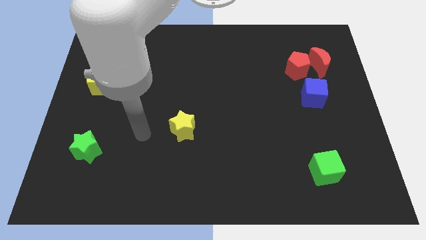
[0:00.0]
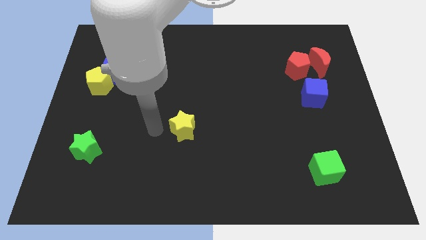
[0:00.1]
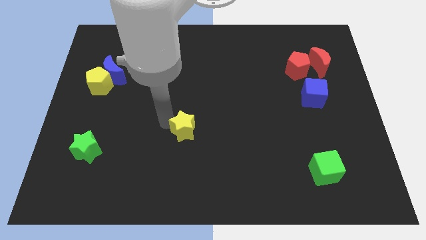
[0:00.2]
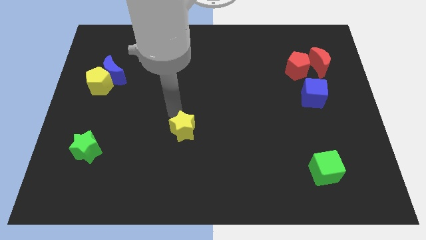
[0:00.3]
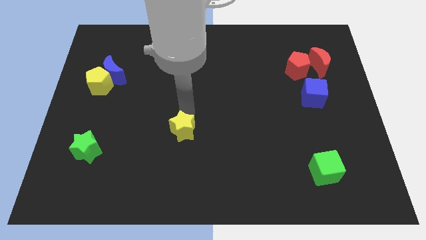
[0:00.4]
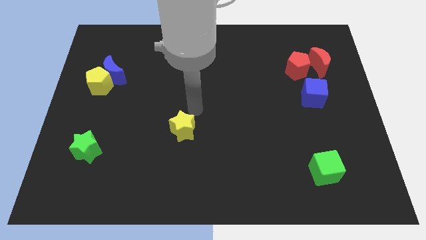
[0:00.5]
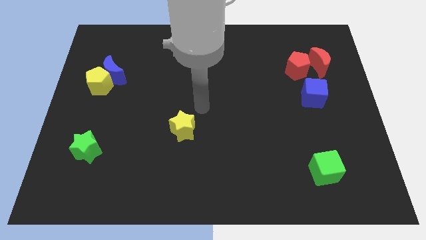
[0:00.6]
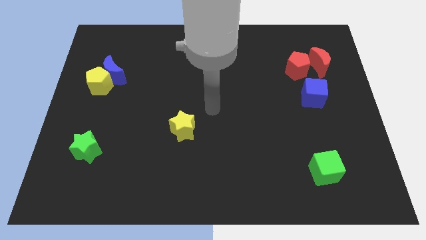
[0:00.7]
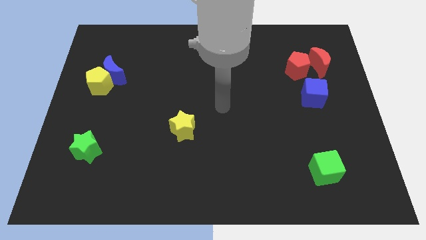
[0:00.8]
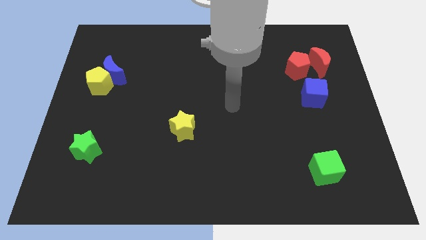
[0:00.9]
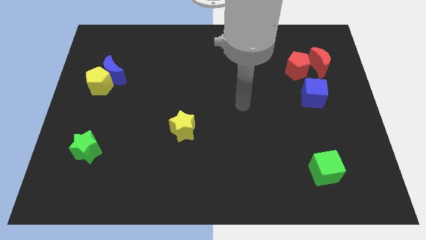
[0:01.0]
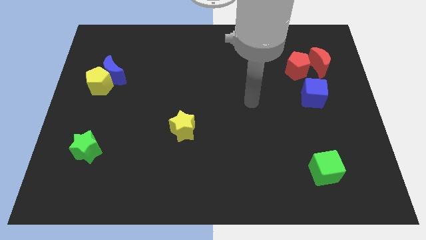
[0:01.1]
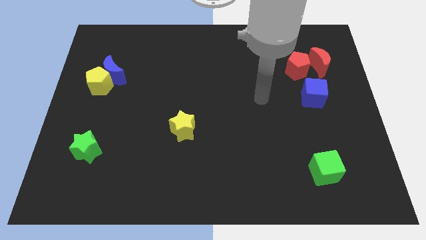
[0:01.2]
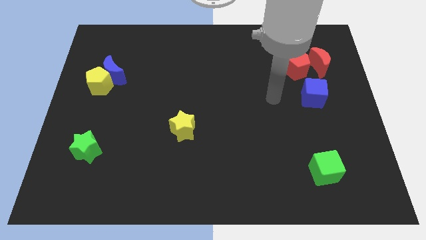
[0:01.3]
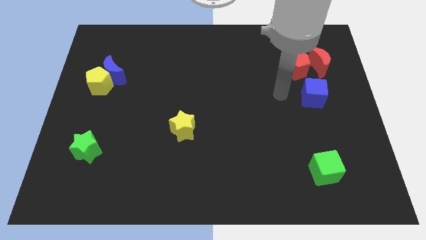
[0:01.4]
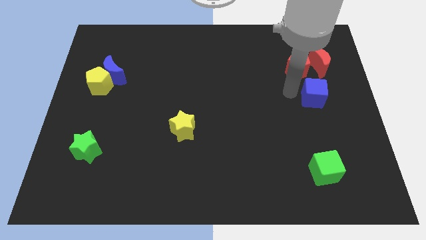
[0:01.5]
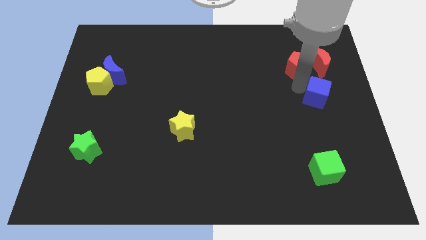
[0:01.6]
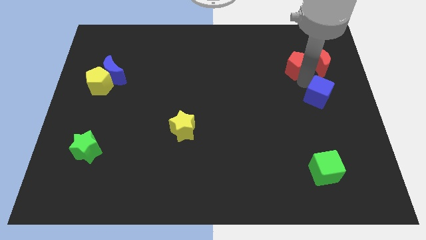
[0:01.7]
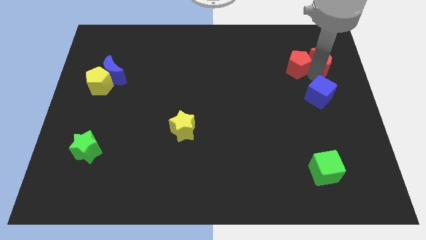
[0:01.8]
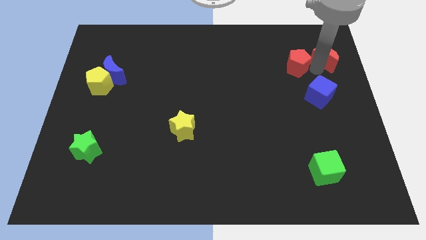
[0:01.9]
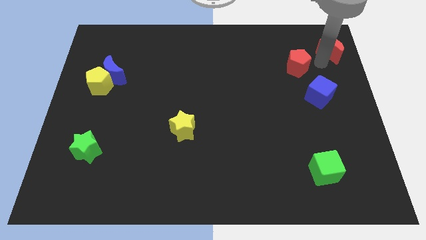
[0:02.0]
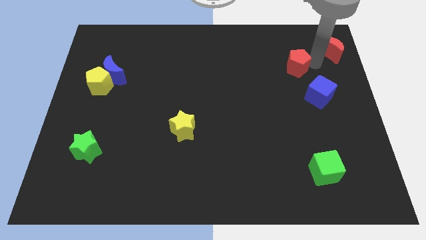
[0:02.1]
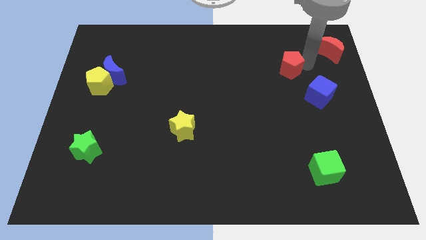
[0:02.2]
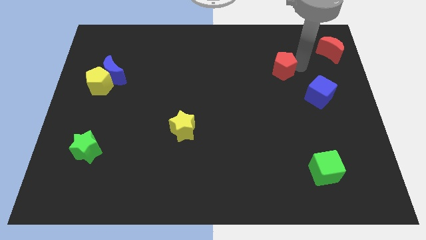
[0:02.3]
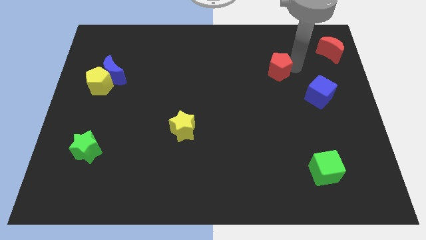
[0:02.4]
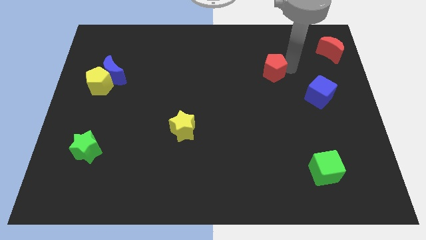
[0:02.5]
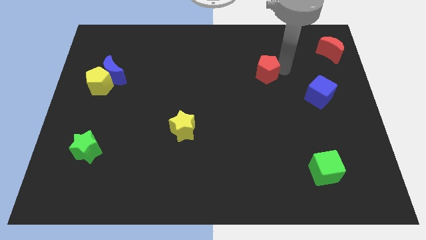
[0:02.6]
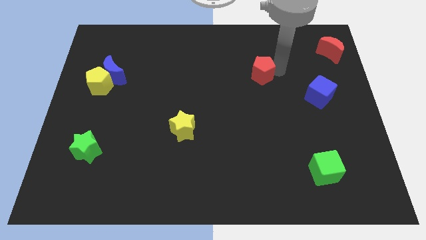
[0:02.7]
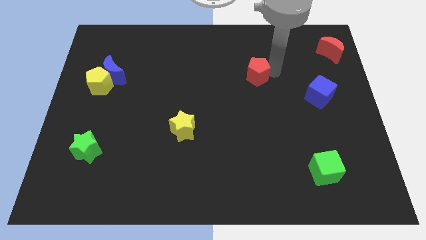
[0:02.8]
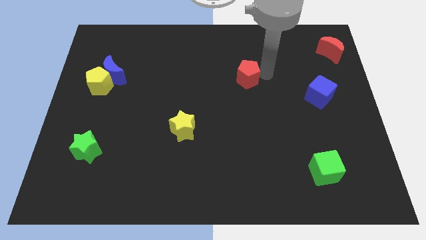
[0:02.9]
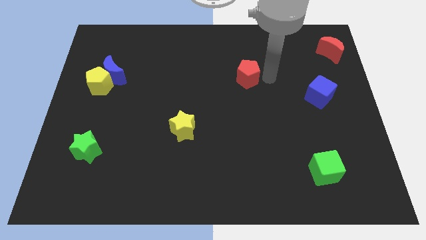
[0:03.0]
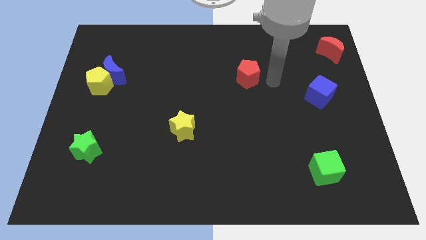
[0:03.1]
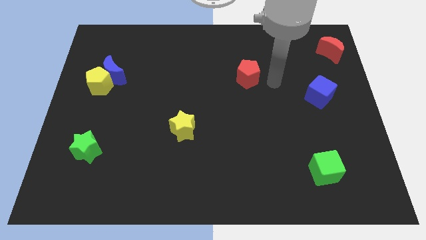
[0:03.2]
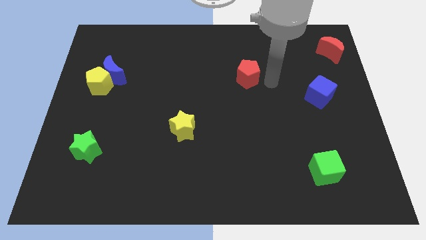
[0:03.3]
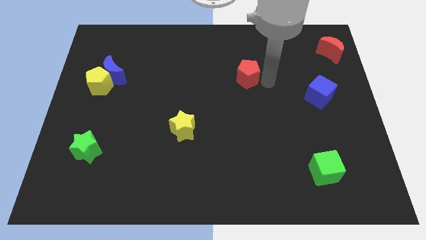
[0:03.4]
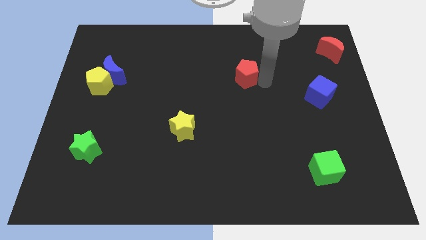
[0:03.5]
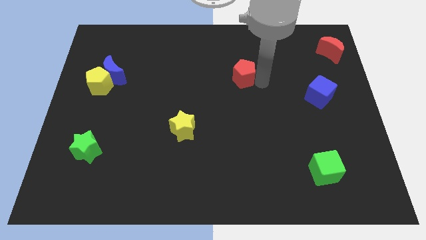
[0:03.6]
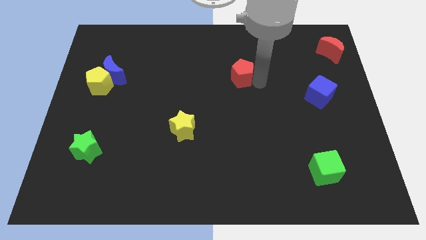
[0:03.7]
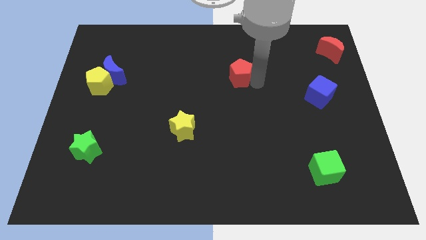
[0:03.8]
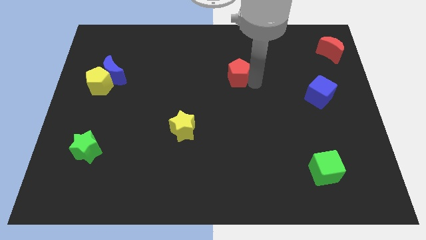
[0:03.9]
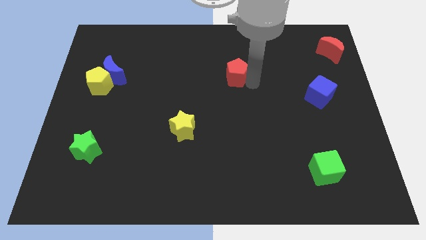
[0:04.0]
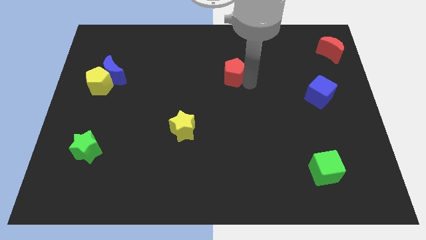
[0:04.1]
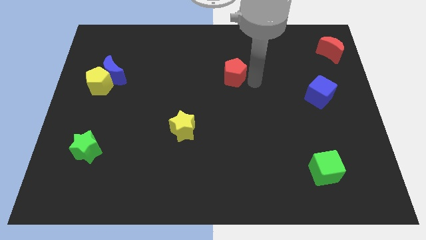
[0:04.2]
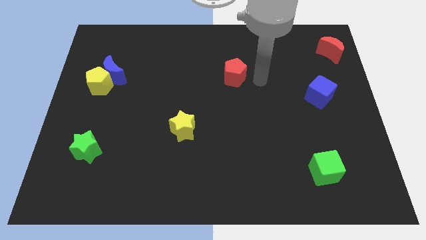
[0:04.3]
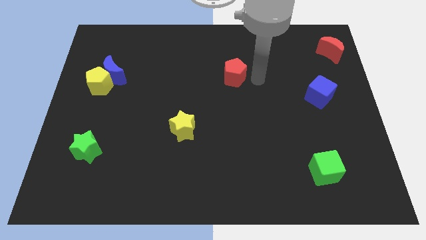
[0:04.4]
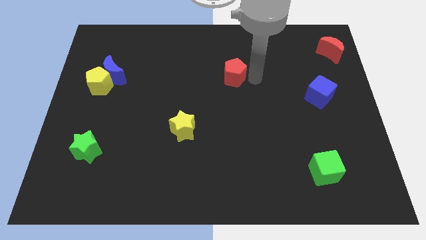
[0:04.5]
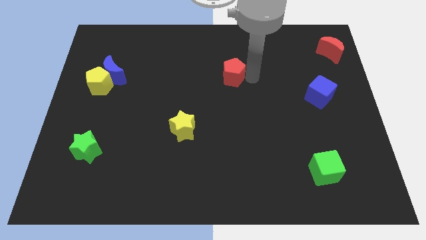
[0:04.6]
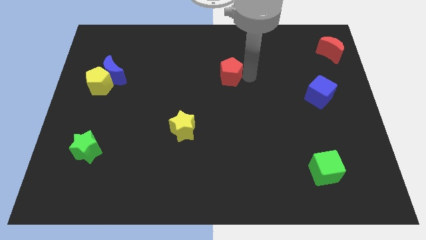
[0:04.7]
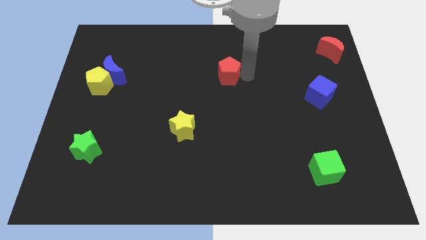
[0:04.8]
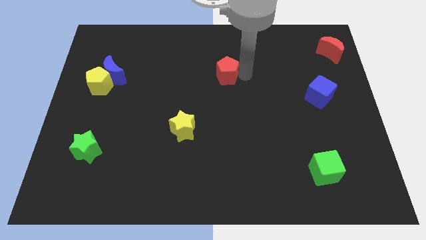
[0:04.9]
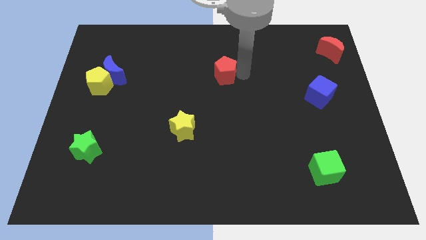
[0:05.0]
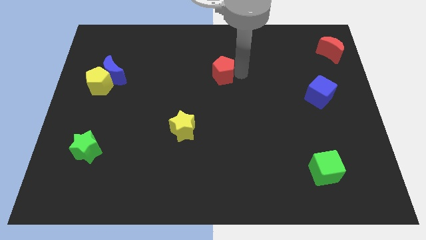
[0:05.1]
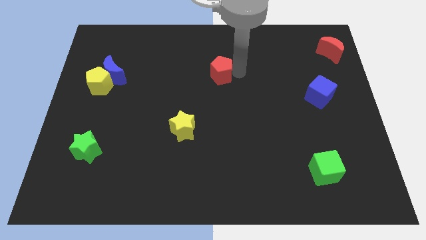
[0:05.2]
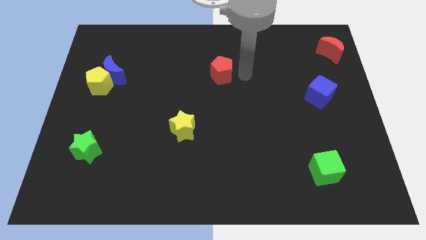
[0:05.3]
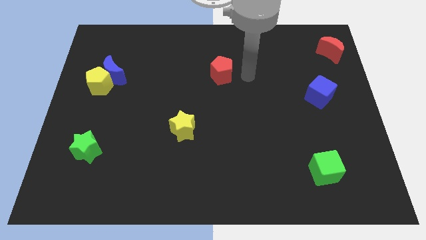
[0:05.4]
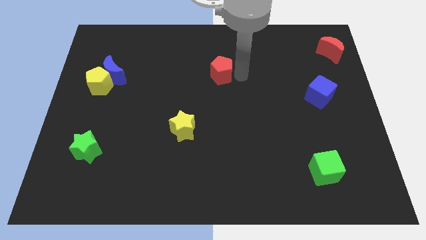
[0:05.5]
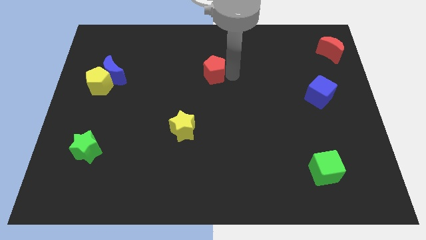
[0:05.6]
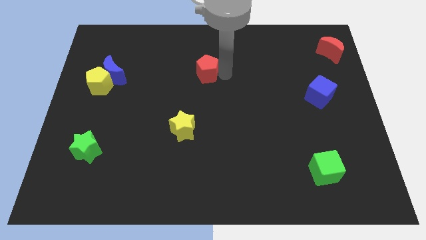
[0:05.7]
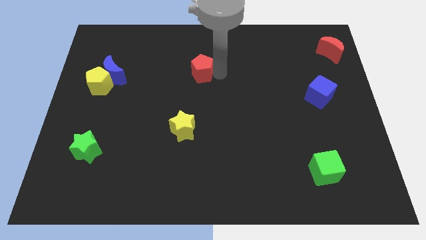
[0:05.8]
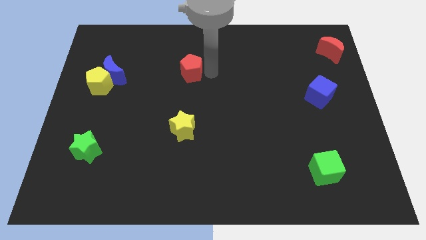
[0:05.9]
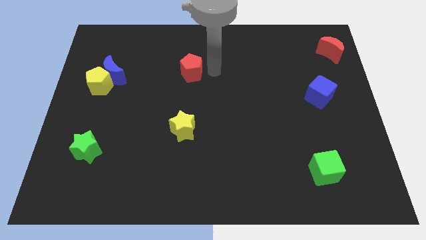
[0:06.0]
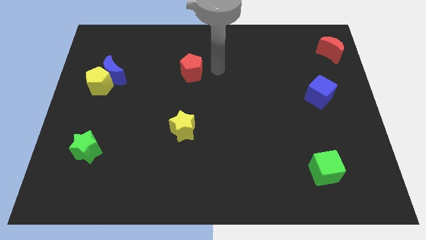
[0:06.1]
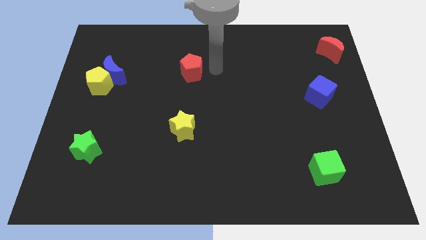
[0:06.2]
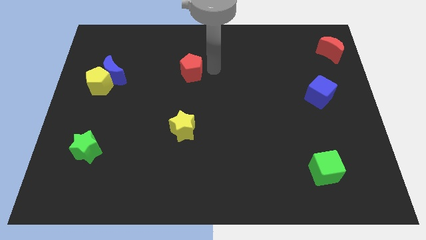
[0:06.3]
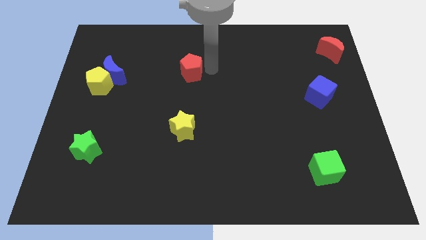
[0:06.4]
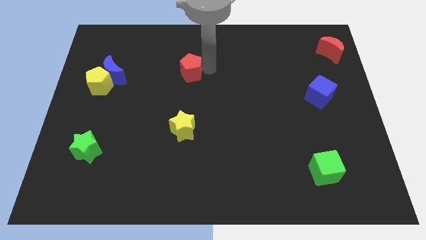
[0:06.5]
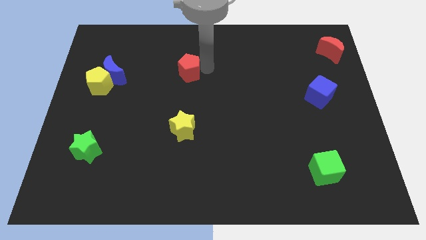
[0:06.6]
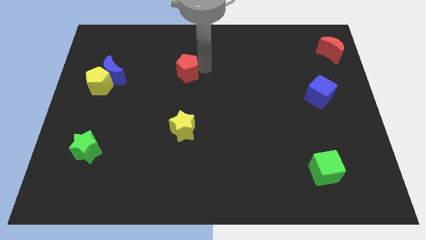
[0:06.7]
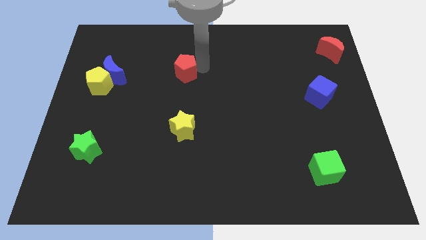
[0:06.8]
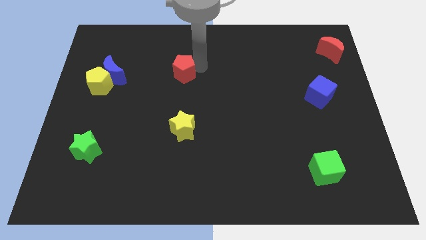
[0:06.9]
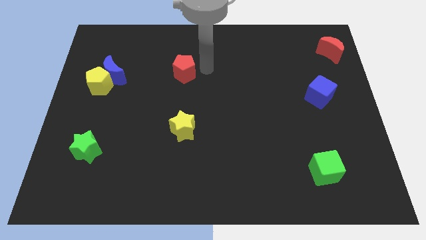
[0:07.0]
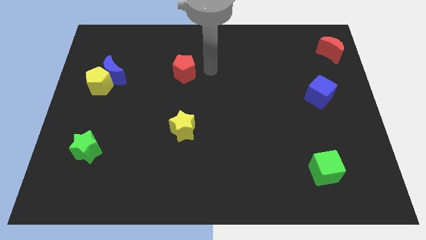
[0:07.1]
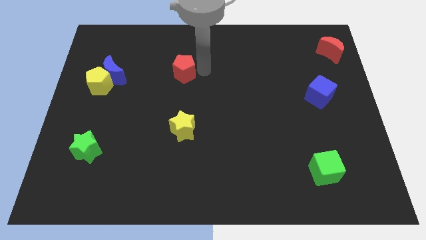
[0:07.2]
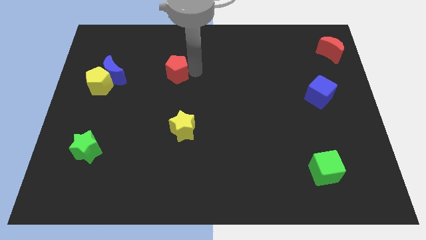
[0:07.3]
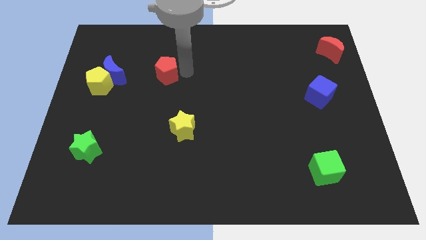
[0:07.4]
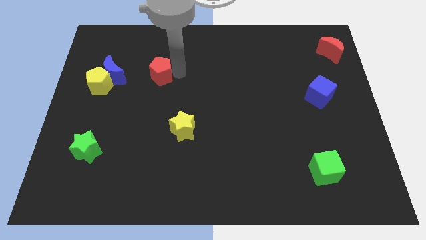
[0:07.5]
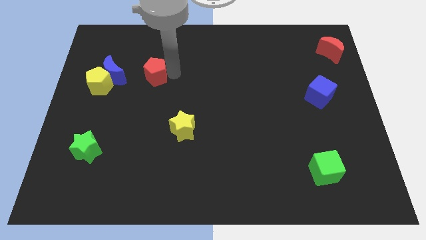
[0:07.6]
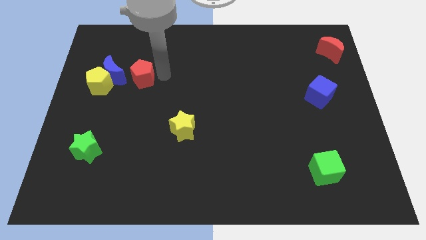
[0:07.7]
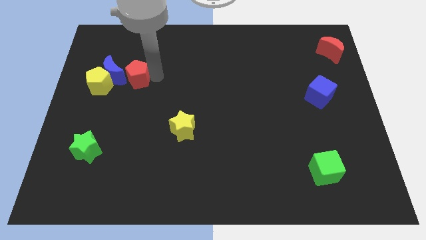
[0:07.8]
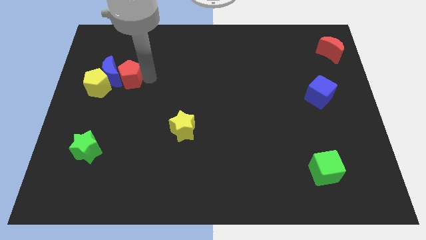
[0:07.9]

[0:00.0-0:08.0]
slide the red pentagon towards the blue moon
